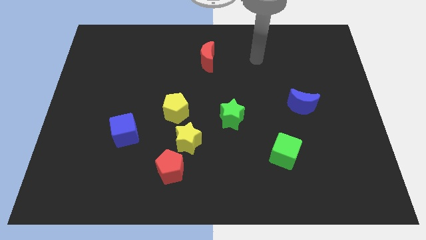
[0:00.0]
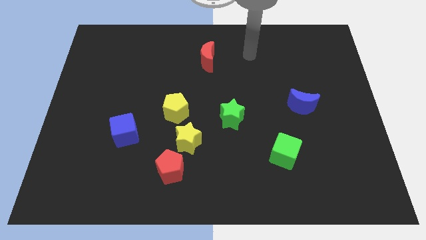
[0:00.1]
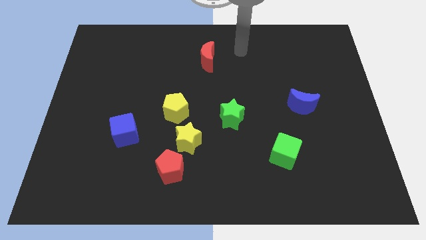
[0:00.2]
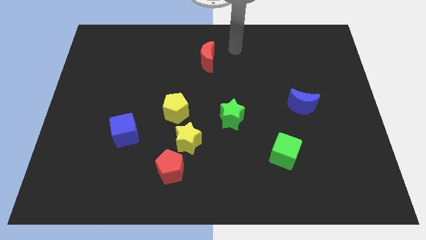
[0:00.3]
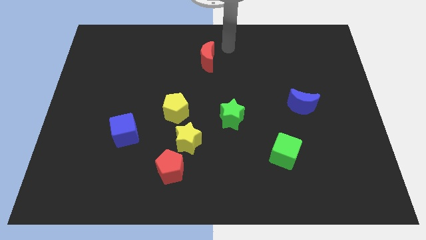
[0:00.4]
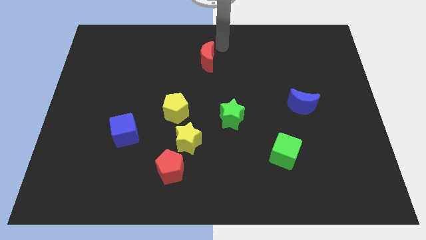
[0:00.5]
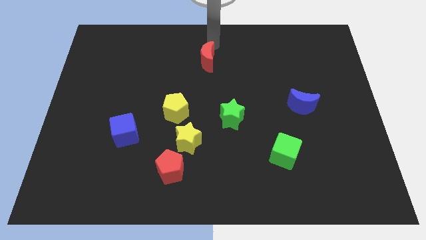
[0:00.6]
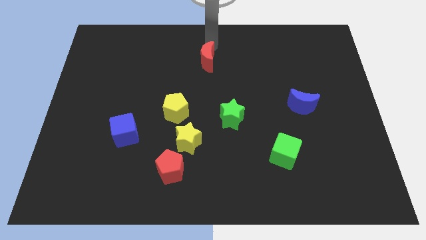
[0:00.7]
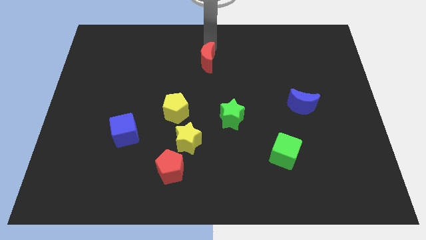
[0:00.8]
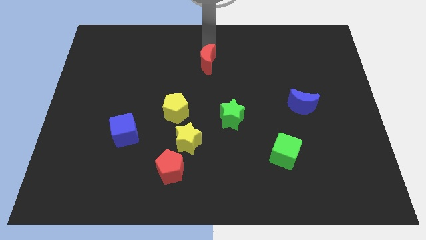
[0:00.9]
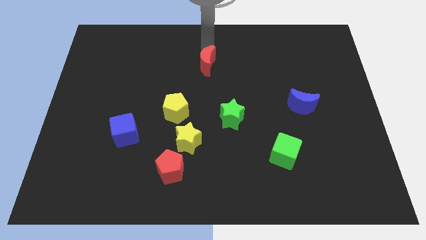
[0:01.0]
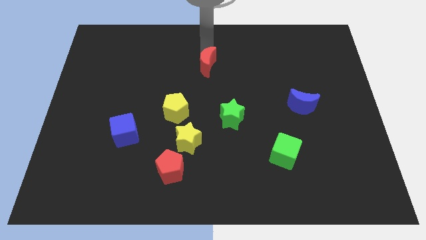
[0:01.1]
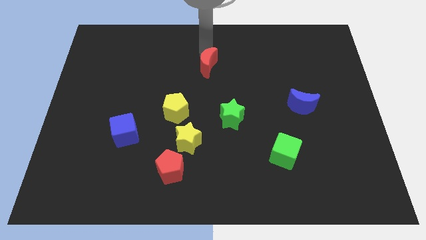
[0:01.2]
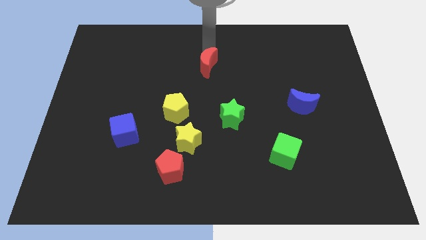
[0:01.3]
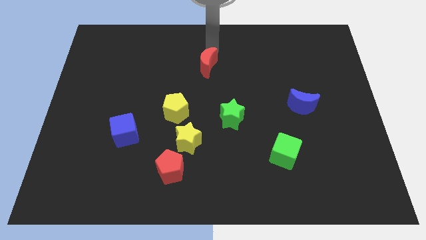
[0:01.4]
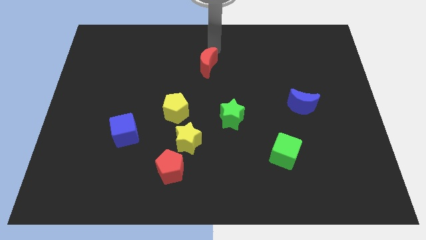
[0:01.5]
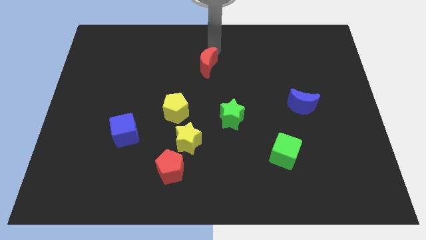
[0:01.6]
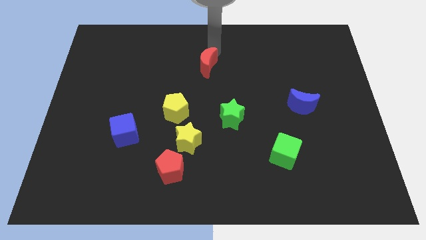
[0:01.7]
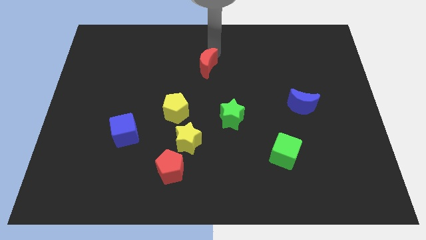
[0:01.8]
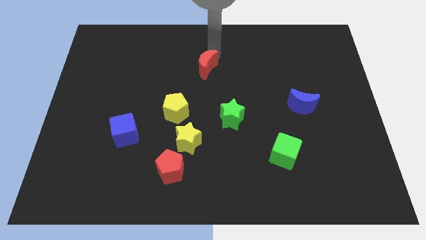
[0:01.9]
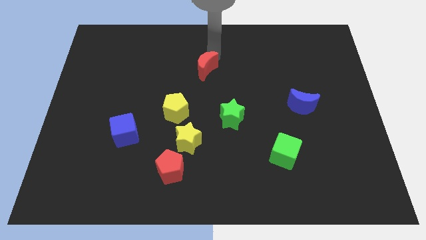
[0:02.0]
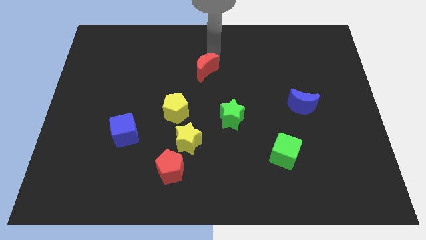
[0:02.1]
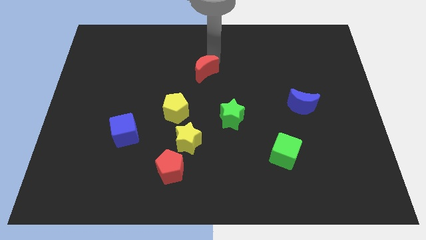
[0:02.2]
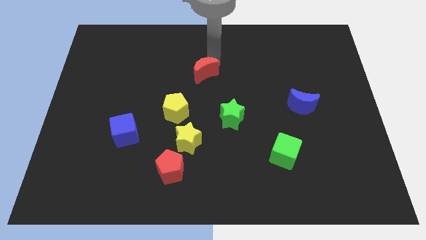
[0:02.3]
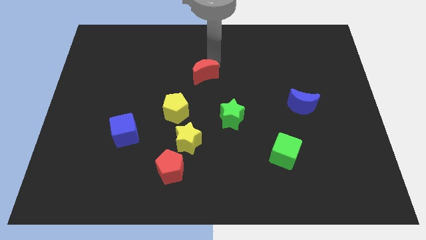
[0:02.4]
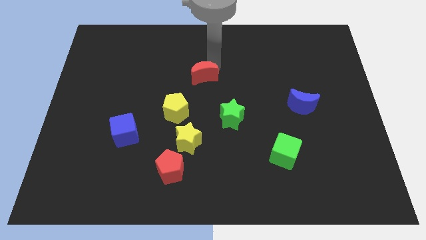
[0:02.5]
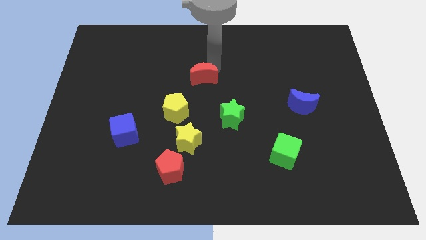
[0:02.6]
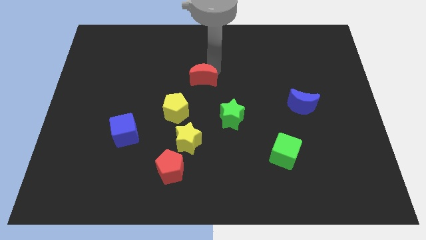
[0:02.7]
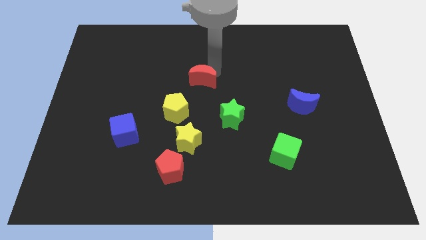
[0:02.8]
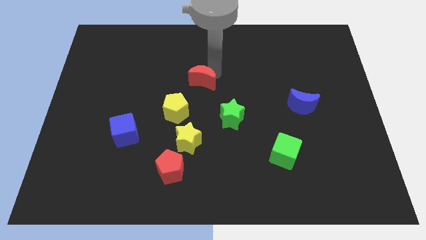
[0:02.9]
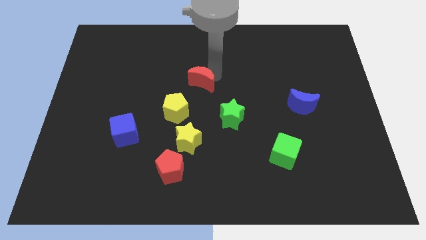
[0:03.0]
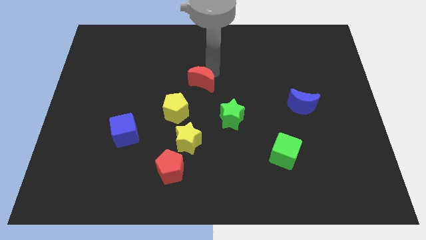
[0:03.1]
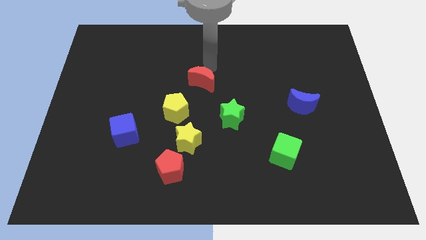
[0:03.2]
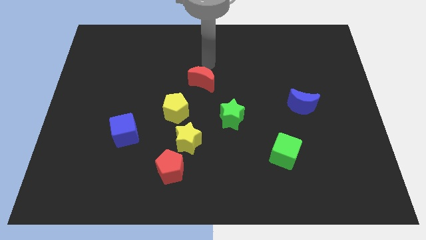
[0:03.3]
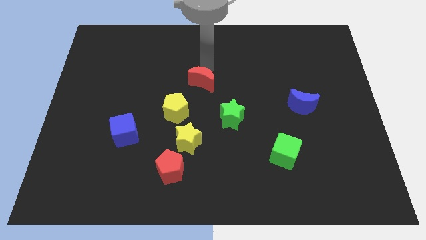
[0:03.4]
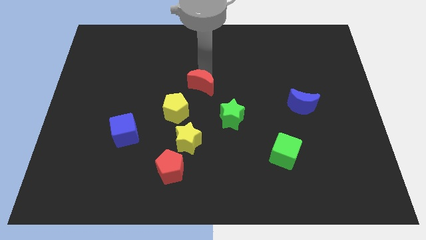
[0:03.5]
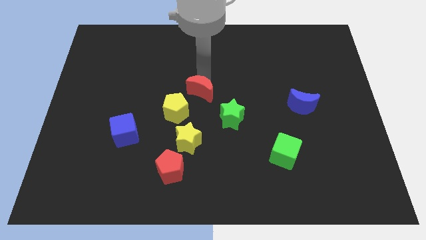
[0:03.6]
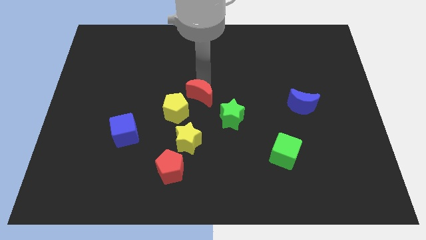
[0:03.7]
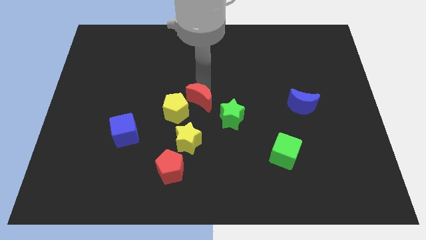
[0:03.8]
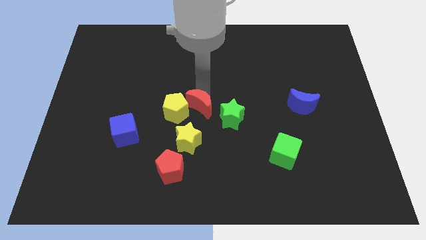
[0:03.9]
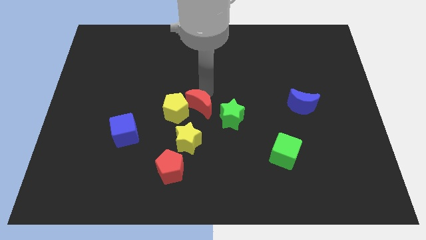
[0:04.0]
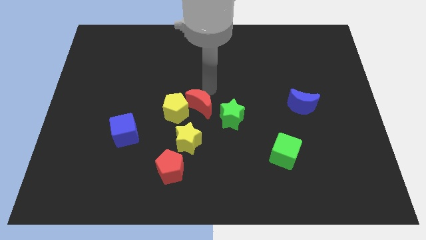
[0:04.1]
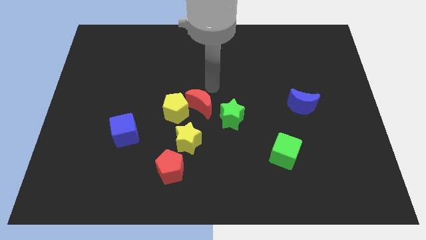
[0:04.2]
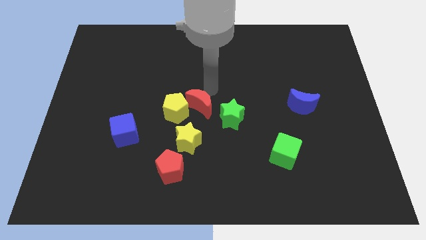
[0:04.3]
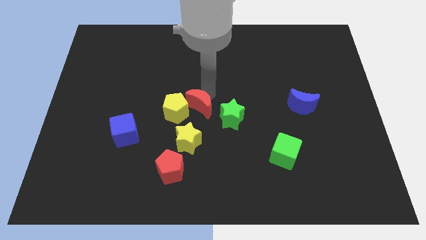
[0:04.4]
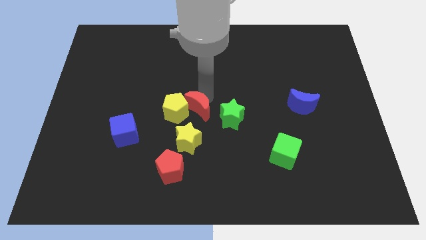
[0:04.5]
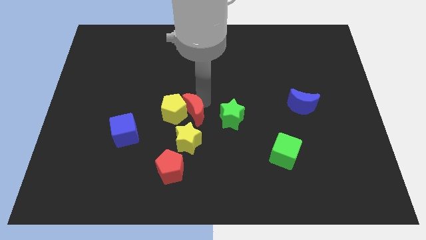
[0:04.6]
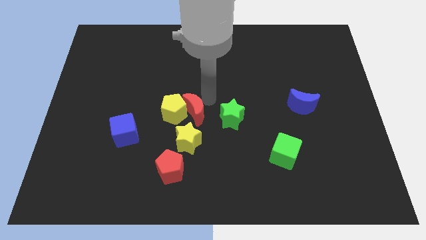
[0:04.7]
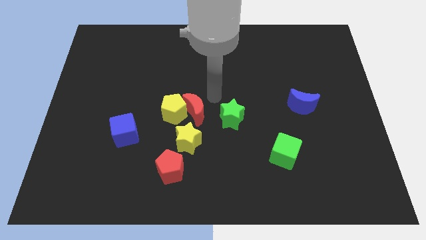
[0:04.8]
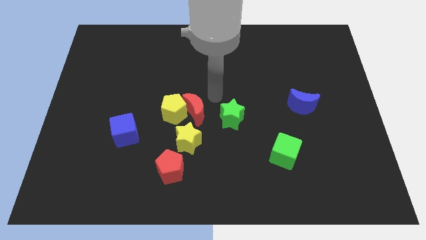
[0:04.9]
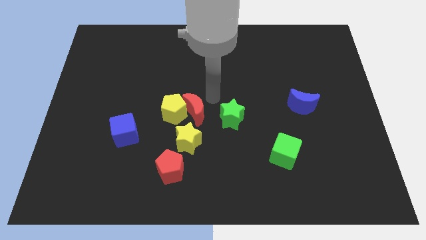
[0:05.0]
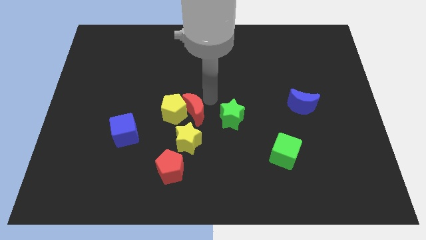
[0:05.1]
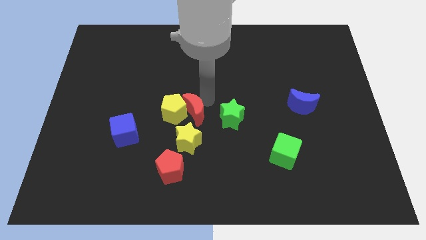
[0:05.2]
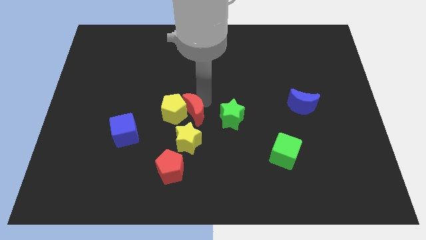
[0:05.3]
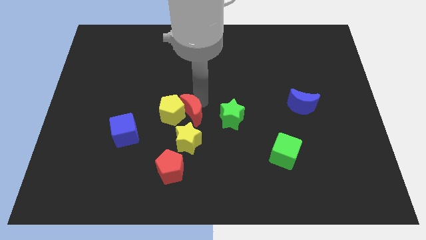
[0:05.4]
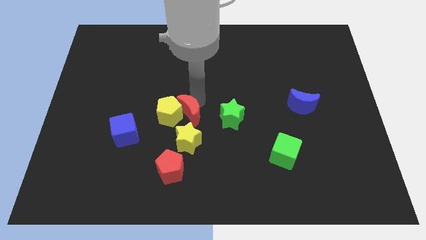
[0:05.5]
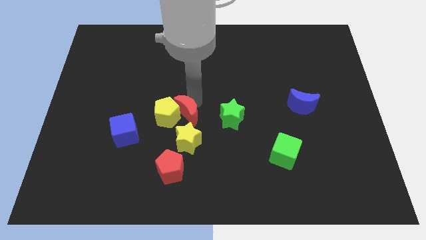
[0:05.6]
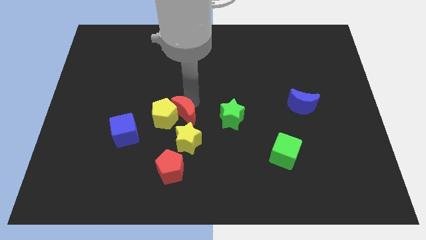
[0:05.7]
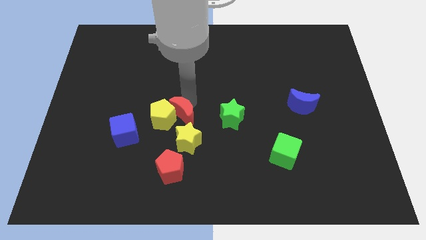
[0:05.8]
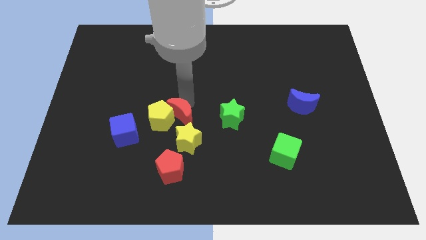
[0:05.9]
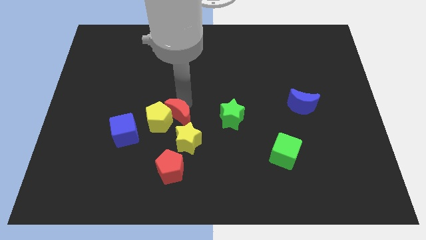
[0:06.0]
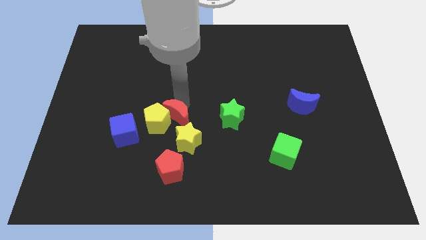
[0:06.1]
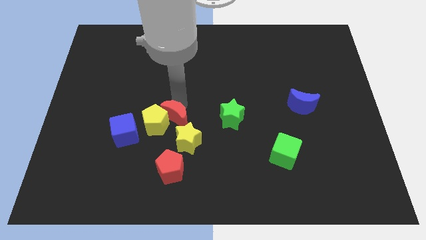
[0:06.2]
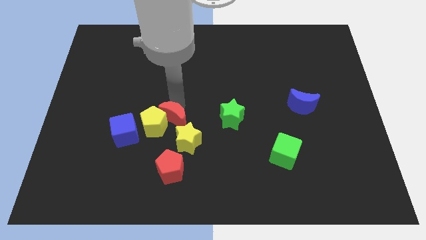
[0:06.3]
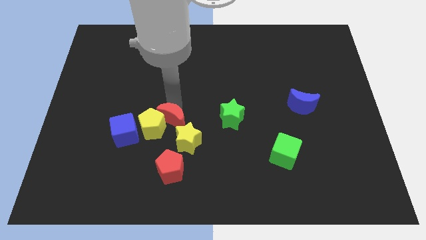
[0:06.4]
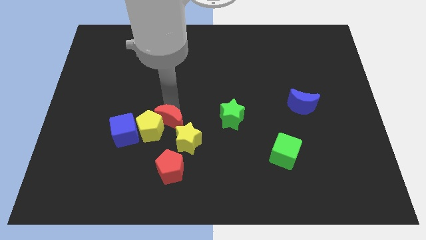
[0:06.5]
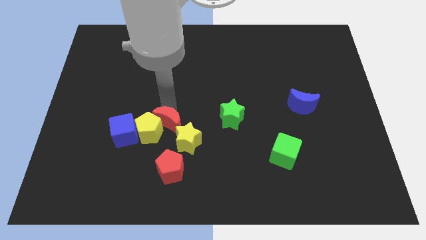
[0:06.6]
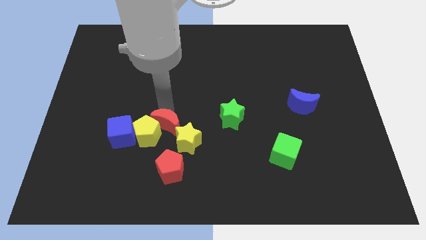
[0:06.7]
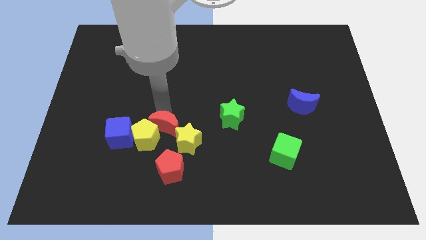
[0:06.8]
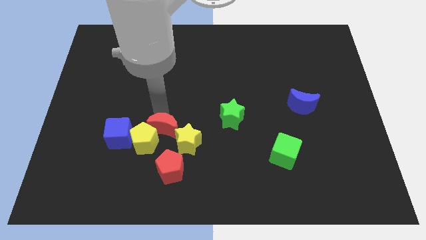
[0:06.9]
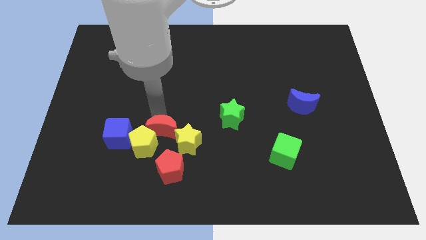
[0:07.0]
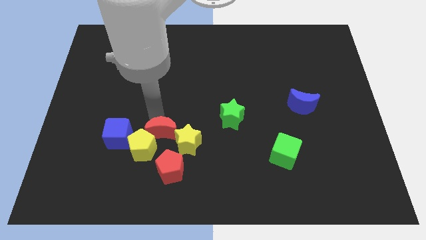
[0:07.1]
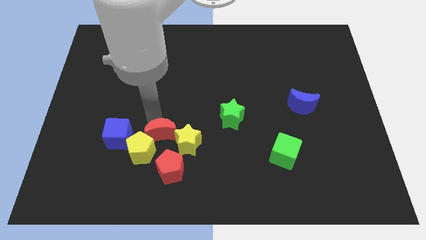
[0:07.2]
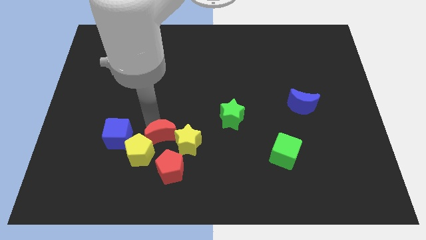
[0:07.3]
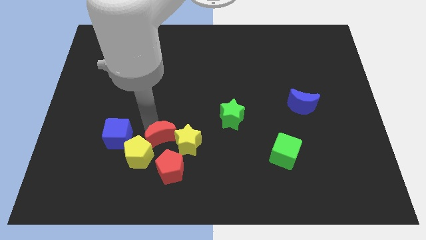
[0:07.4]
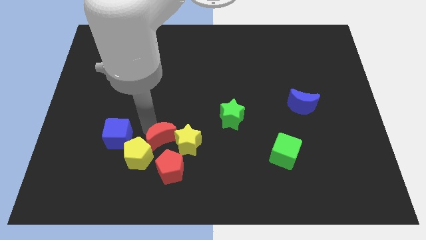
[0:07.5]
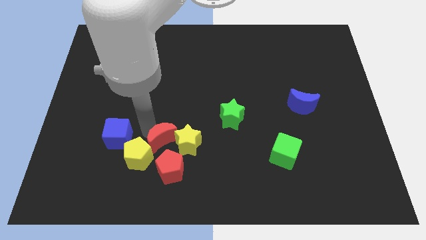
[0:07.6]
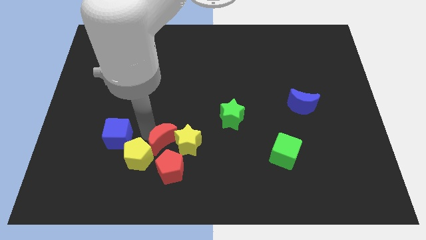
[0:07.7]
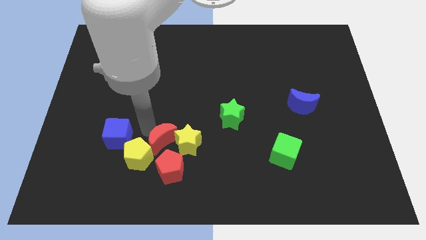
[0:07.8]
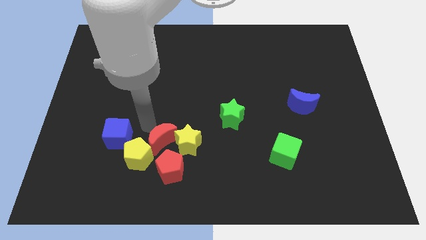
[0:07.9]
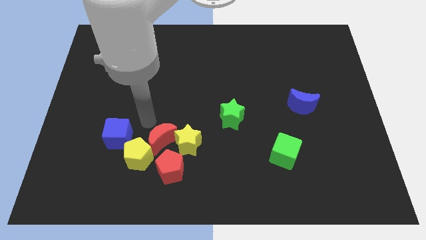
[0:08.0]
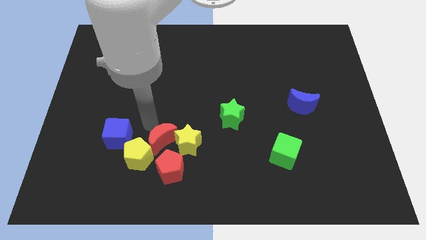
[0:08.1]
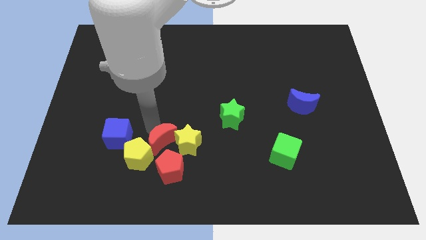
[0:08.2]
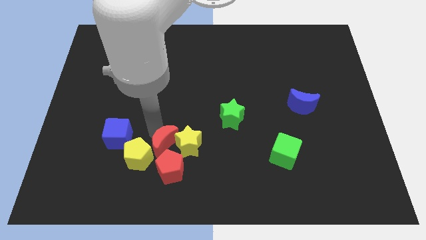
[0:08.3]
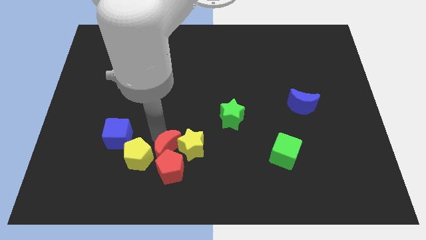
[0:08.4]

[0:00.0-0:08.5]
slide the red moon towards the red pentagon
